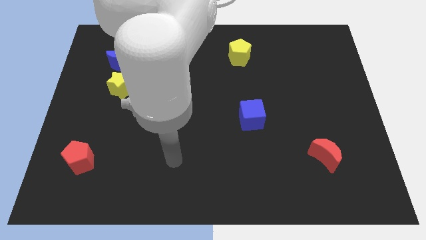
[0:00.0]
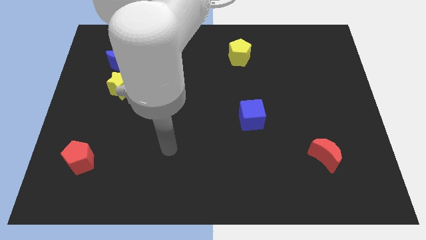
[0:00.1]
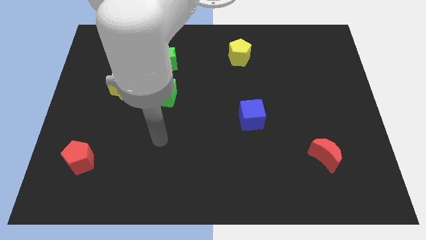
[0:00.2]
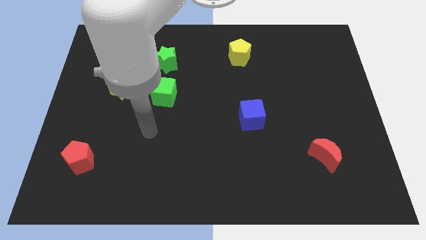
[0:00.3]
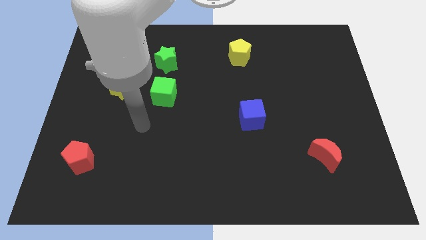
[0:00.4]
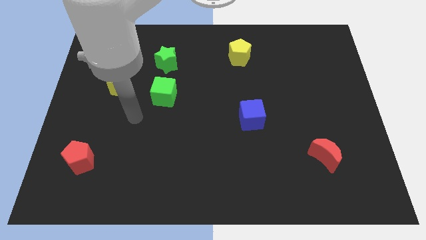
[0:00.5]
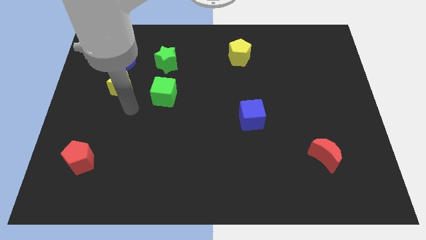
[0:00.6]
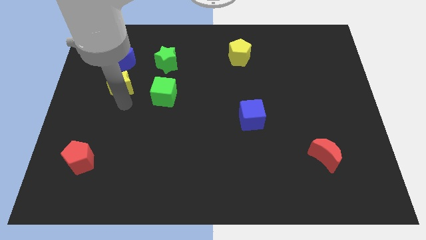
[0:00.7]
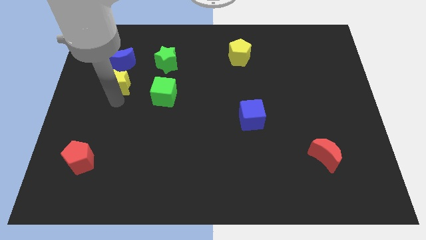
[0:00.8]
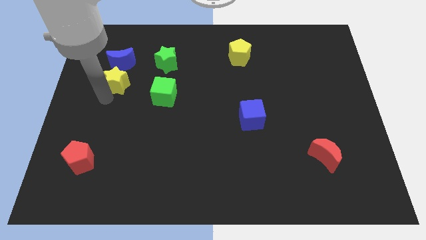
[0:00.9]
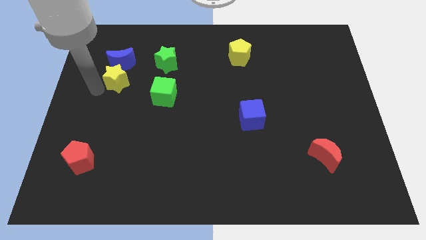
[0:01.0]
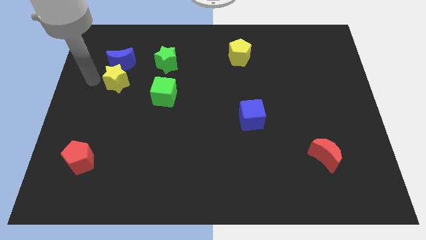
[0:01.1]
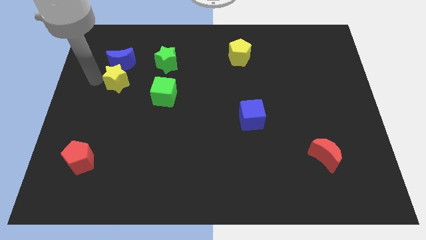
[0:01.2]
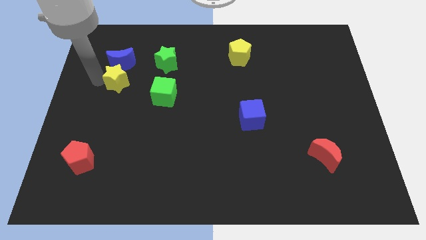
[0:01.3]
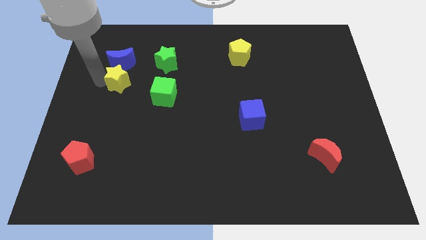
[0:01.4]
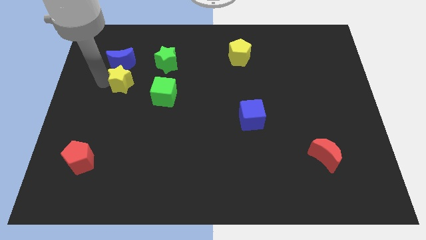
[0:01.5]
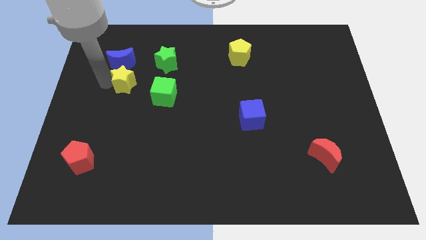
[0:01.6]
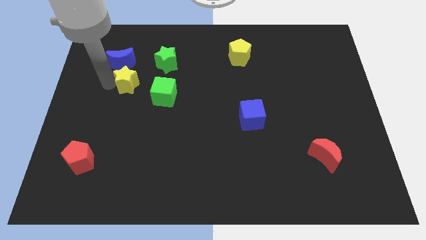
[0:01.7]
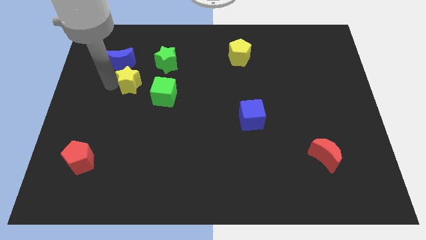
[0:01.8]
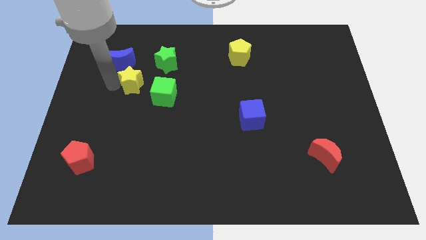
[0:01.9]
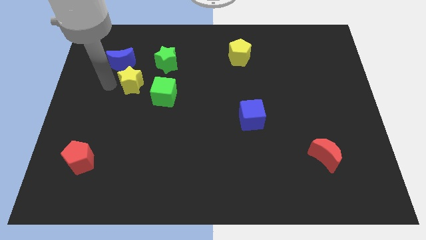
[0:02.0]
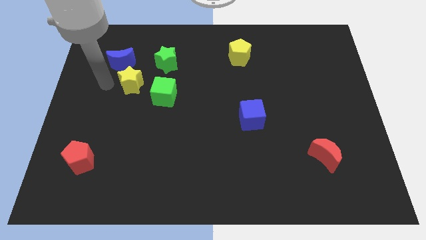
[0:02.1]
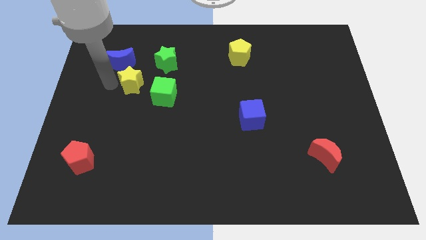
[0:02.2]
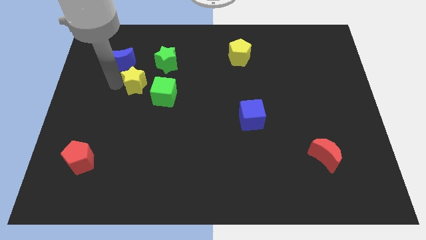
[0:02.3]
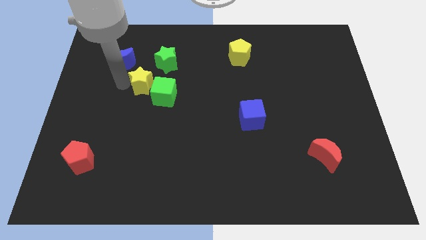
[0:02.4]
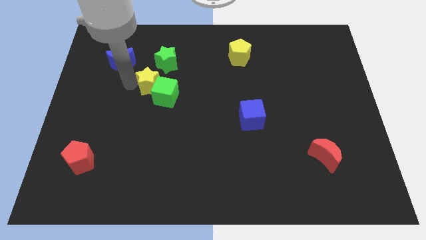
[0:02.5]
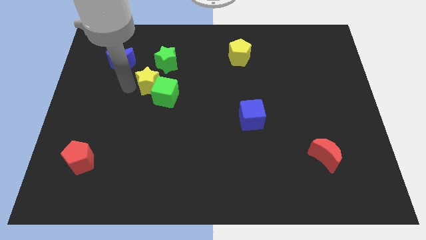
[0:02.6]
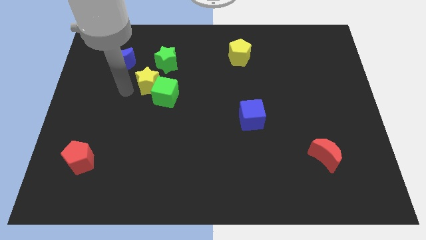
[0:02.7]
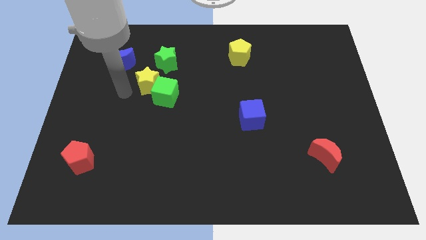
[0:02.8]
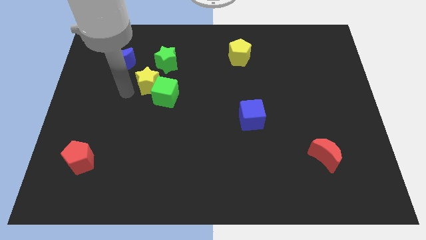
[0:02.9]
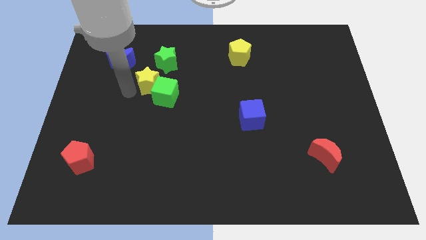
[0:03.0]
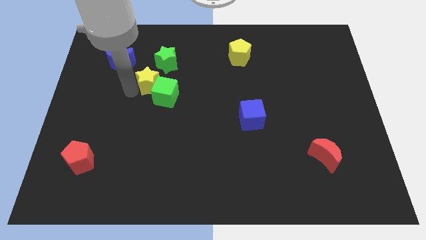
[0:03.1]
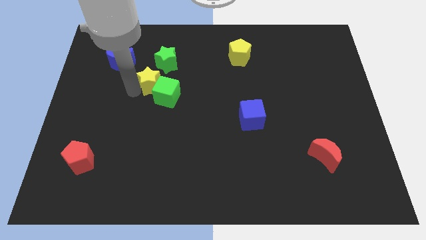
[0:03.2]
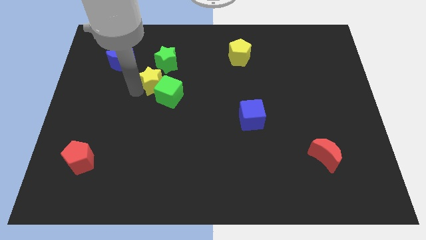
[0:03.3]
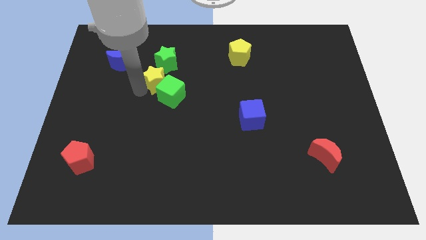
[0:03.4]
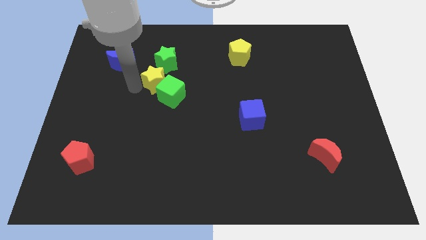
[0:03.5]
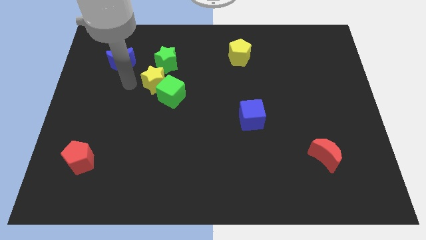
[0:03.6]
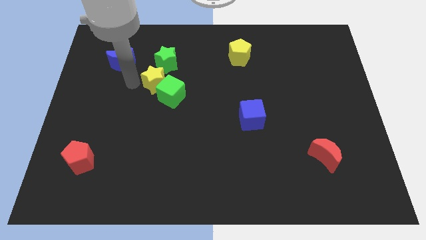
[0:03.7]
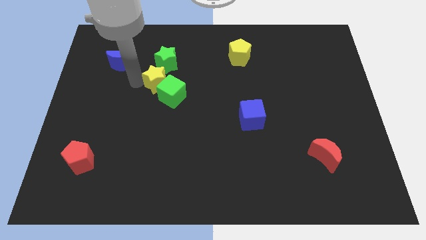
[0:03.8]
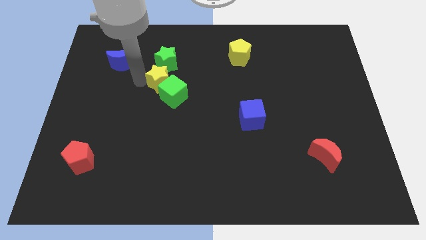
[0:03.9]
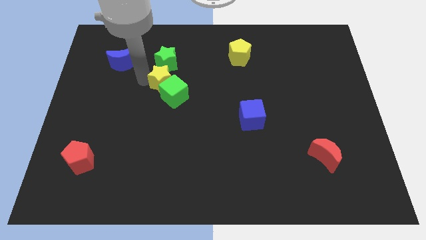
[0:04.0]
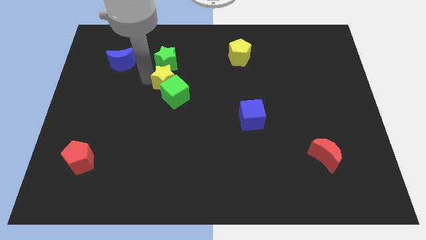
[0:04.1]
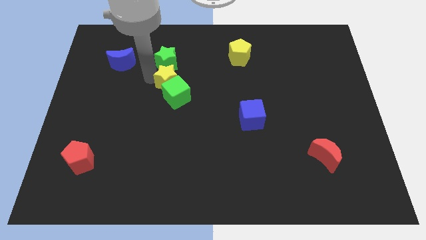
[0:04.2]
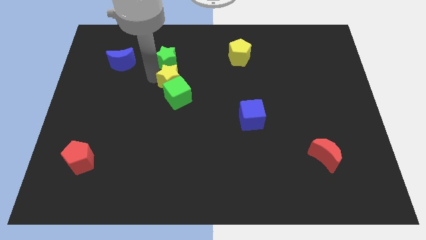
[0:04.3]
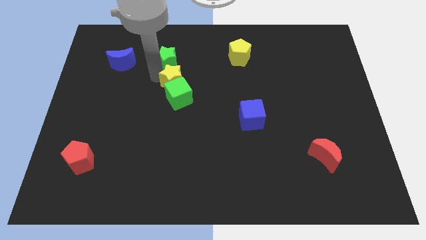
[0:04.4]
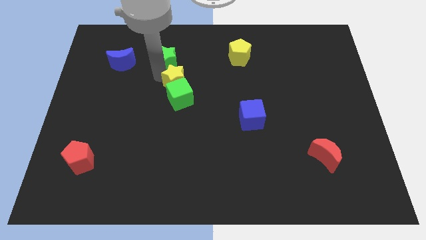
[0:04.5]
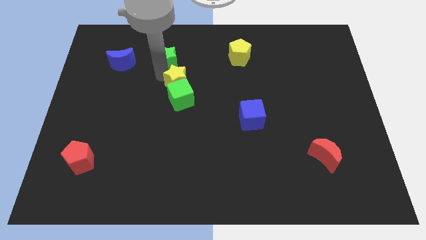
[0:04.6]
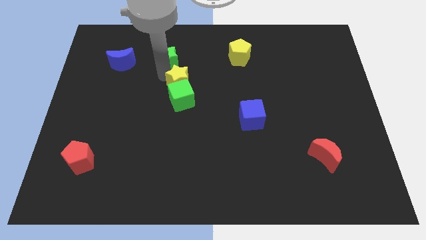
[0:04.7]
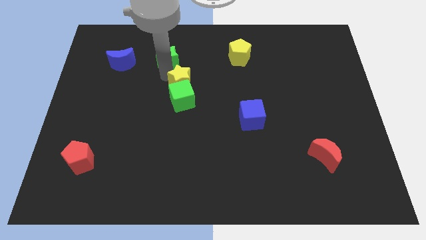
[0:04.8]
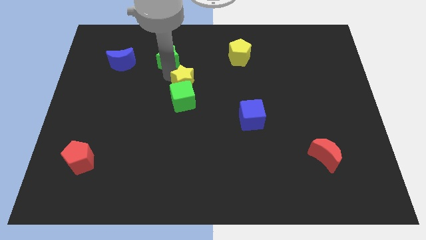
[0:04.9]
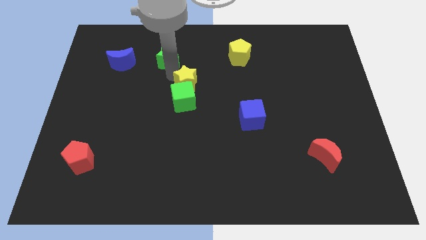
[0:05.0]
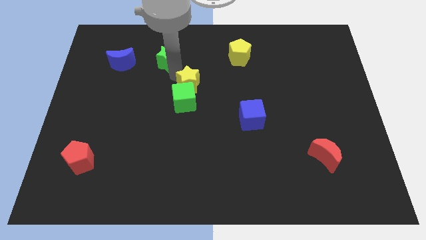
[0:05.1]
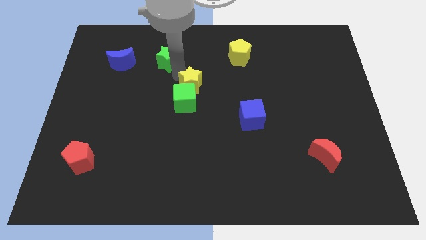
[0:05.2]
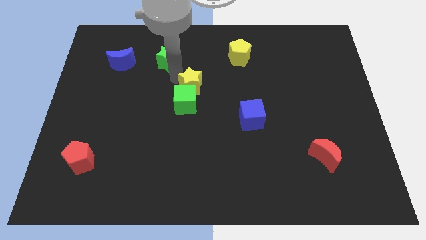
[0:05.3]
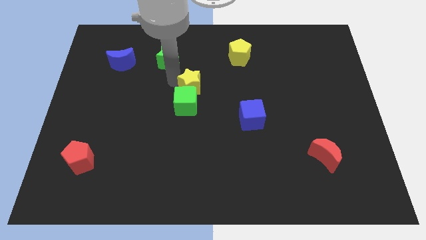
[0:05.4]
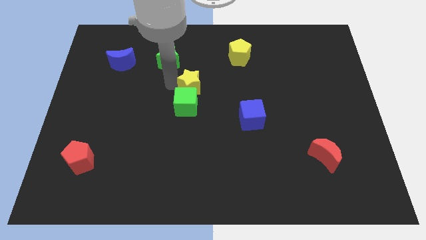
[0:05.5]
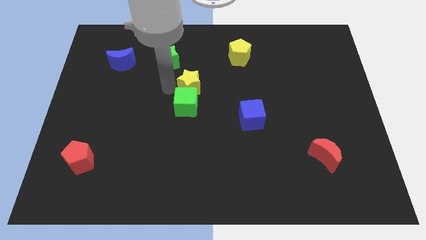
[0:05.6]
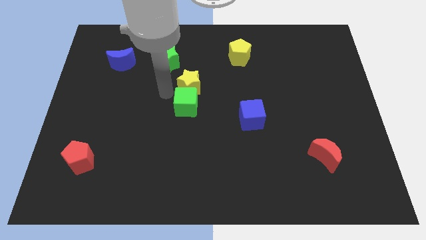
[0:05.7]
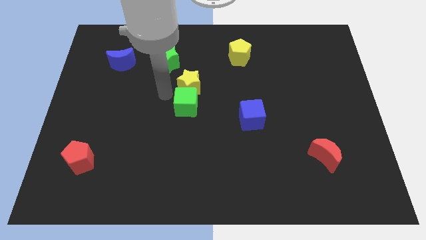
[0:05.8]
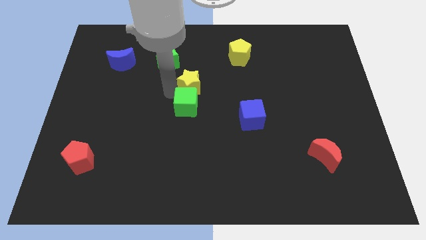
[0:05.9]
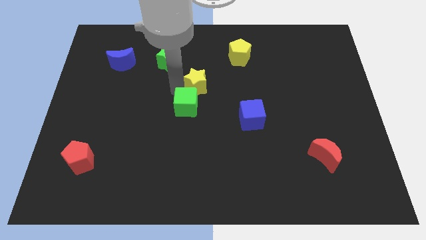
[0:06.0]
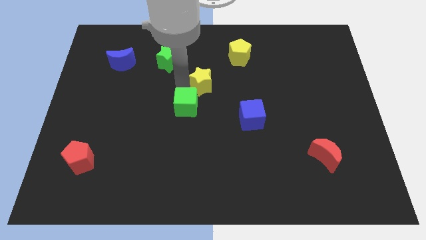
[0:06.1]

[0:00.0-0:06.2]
move the yellow star to the right
